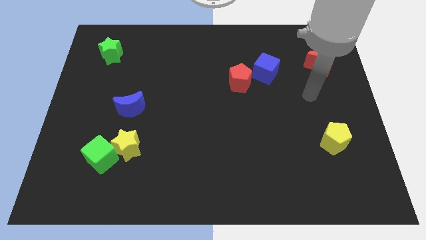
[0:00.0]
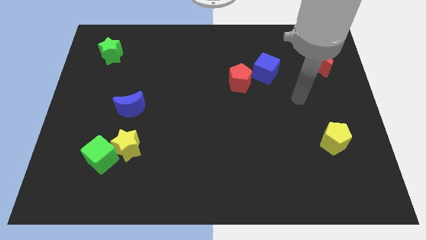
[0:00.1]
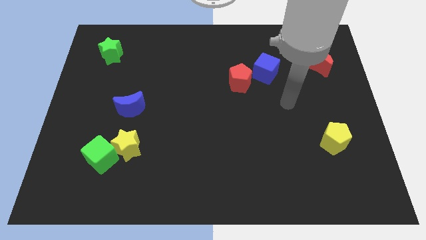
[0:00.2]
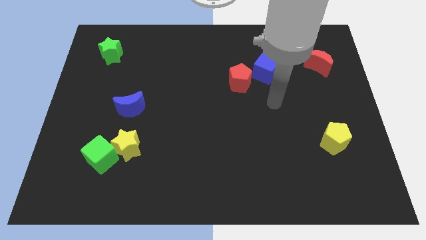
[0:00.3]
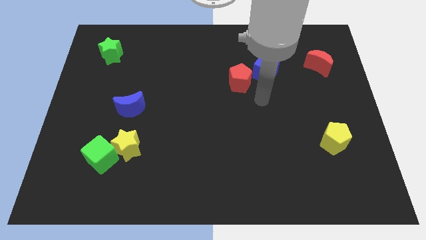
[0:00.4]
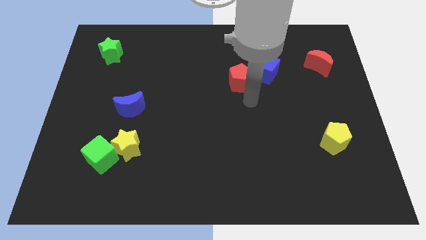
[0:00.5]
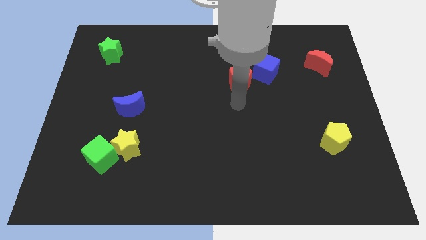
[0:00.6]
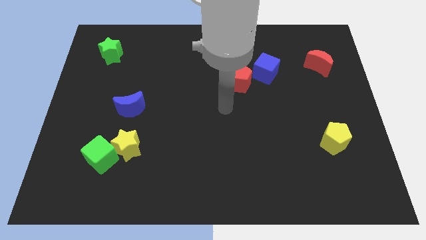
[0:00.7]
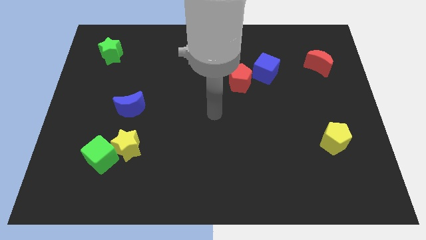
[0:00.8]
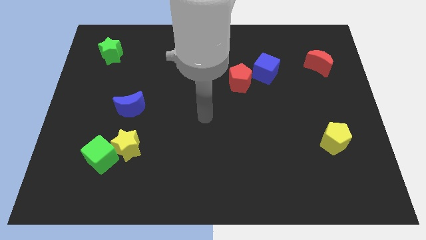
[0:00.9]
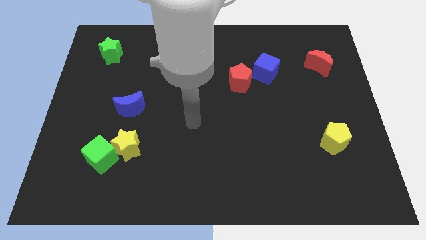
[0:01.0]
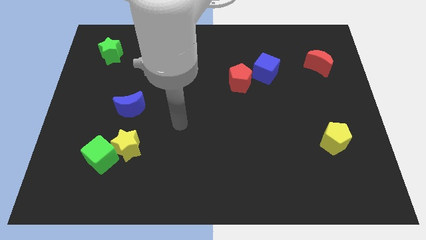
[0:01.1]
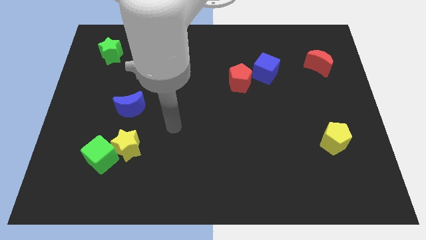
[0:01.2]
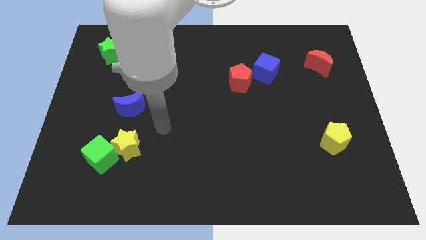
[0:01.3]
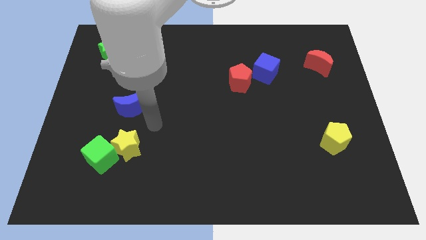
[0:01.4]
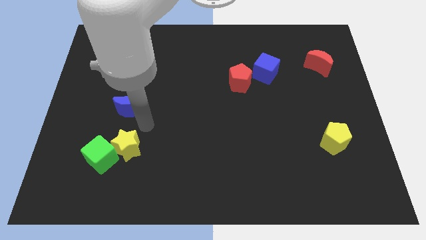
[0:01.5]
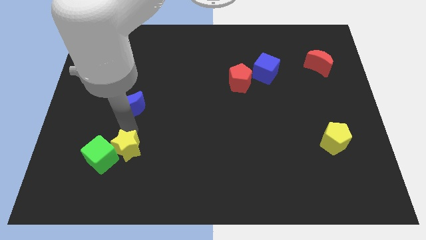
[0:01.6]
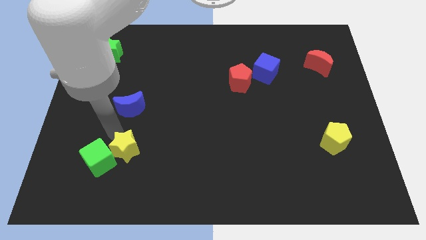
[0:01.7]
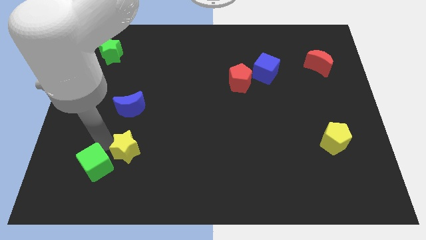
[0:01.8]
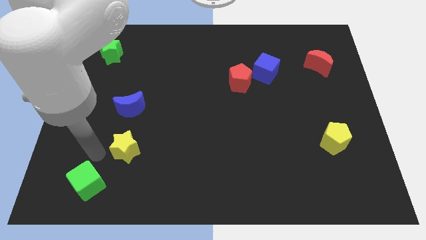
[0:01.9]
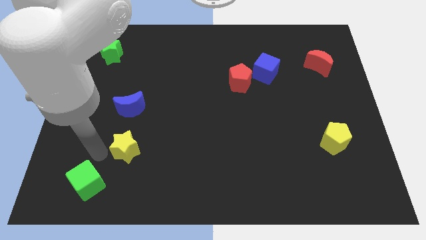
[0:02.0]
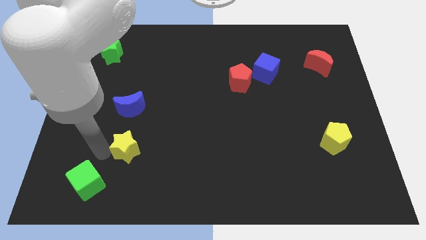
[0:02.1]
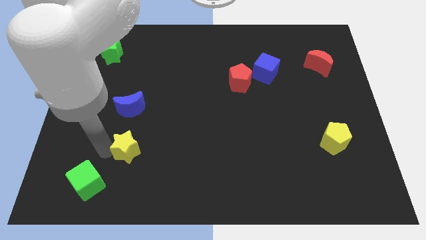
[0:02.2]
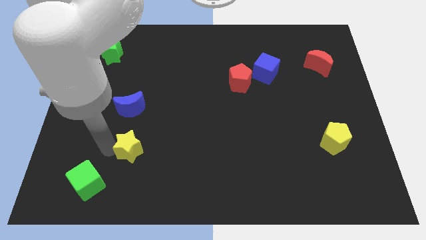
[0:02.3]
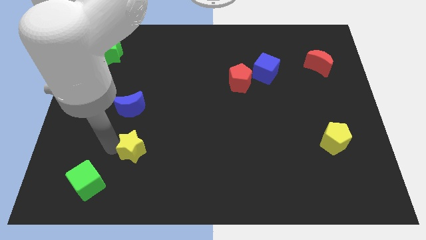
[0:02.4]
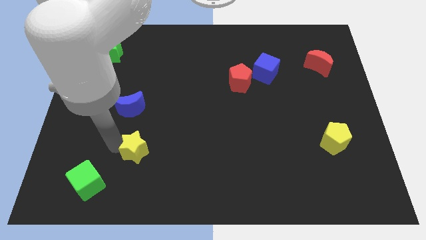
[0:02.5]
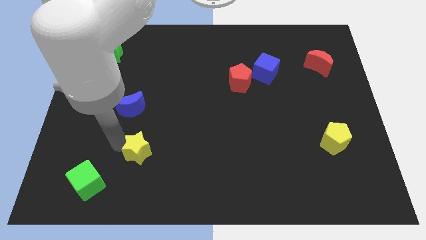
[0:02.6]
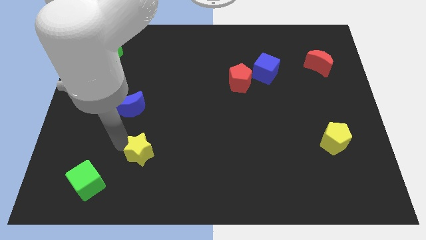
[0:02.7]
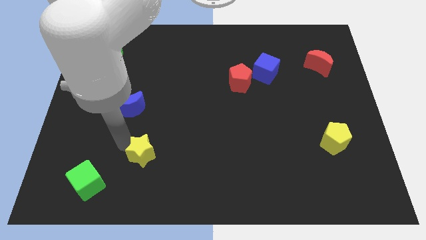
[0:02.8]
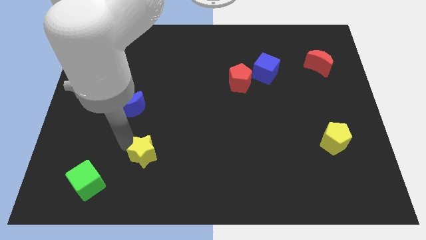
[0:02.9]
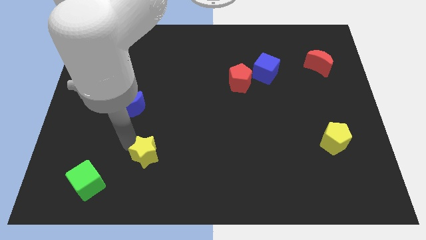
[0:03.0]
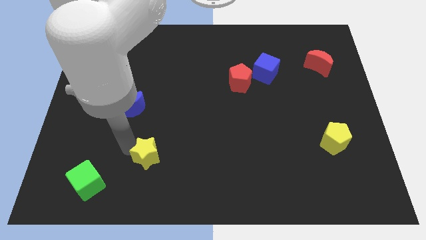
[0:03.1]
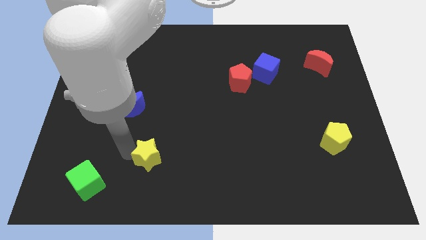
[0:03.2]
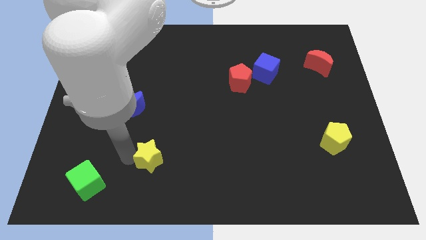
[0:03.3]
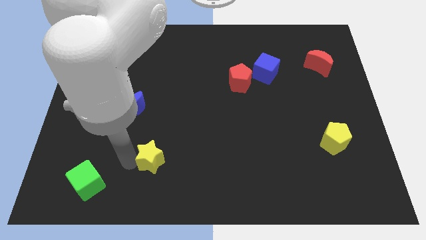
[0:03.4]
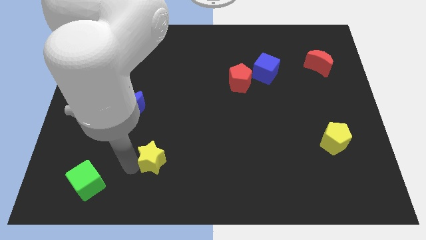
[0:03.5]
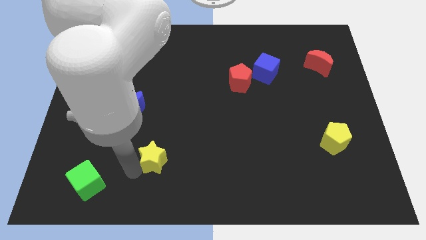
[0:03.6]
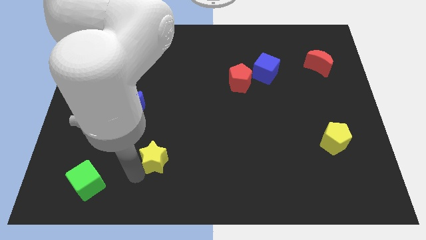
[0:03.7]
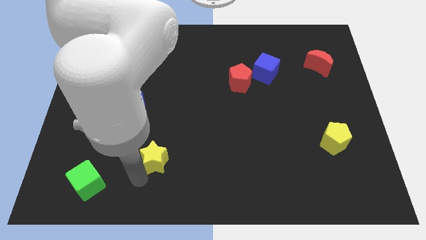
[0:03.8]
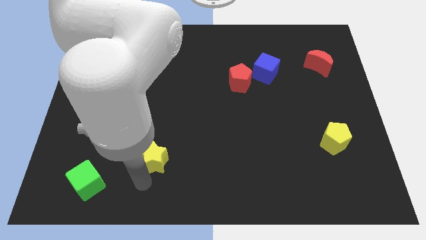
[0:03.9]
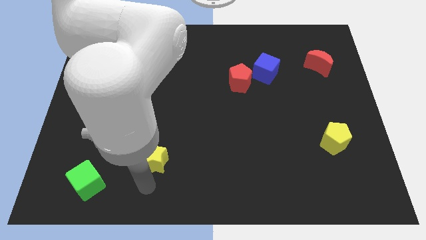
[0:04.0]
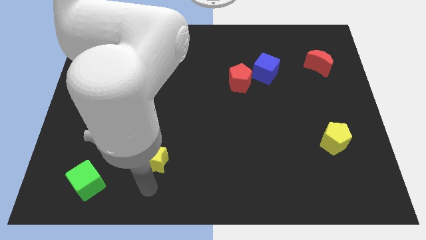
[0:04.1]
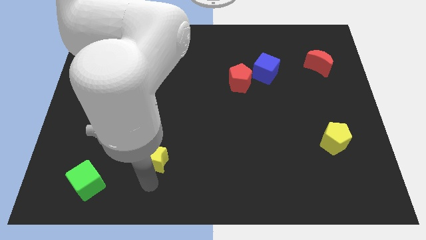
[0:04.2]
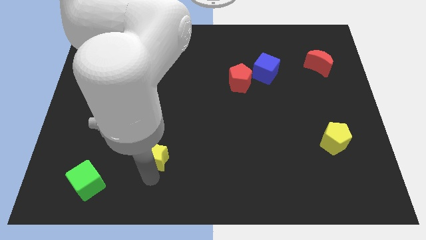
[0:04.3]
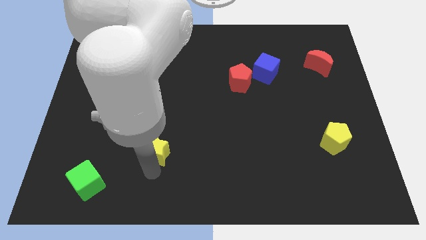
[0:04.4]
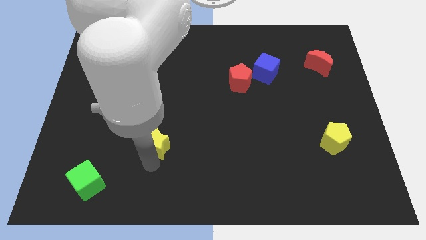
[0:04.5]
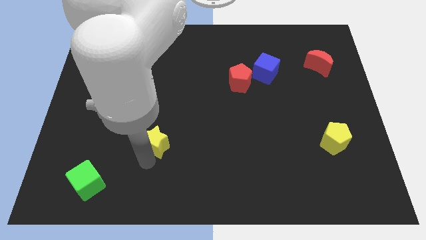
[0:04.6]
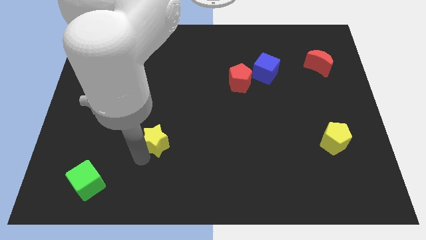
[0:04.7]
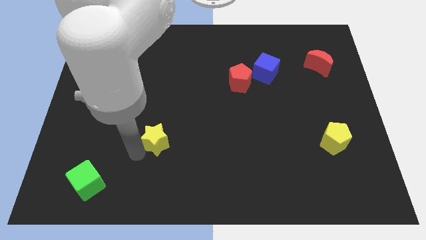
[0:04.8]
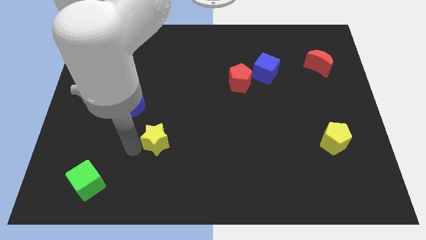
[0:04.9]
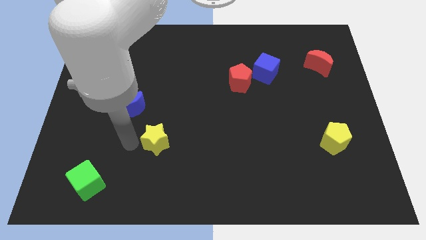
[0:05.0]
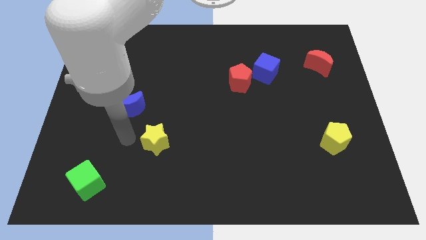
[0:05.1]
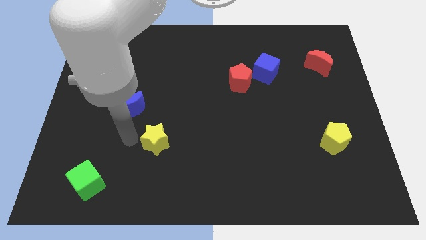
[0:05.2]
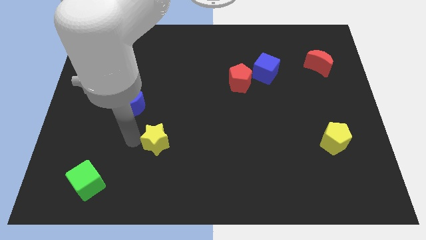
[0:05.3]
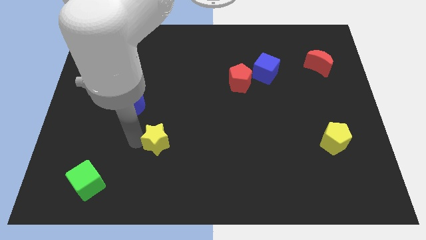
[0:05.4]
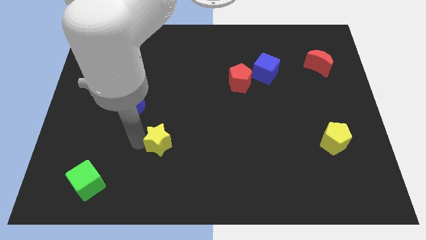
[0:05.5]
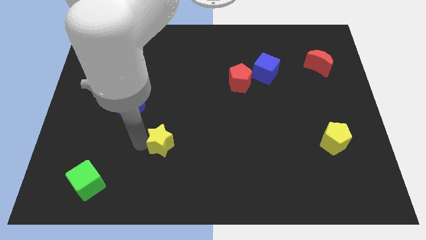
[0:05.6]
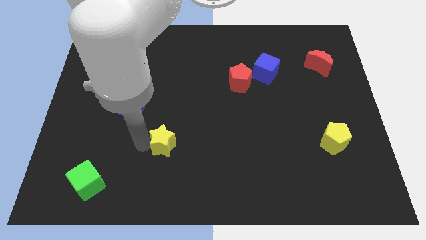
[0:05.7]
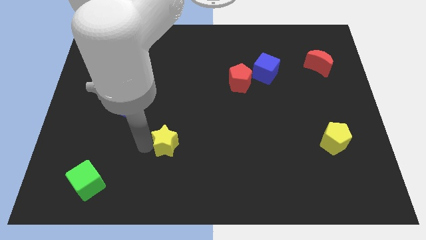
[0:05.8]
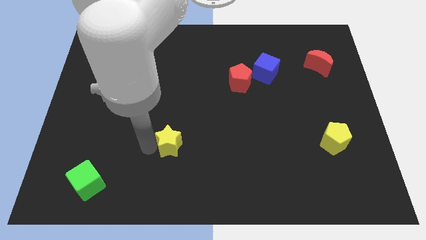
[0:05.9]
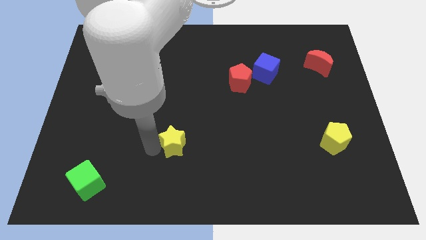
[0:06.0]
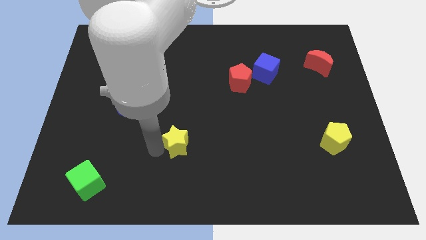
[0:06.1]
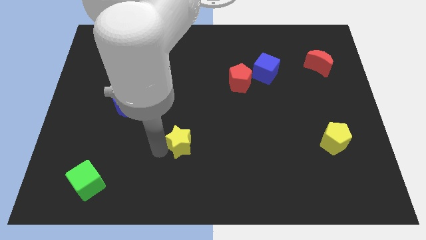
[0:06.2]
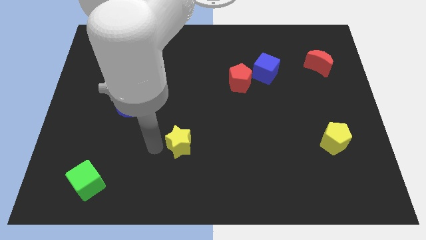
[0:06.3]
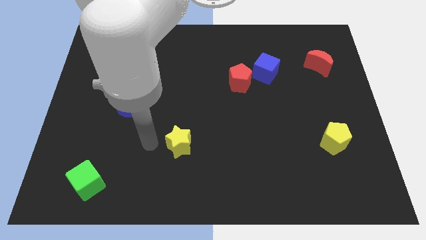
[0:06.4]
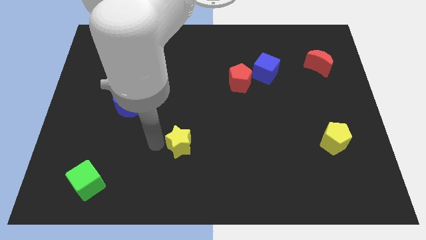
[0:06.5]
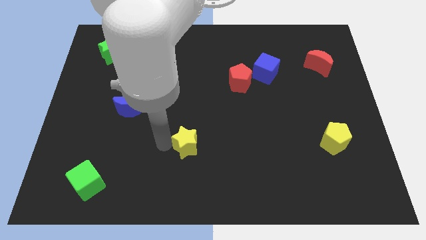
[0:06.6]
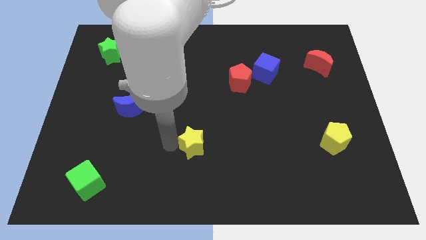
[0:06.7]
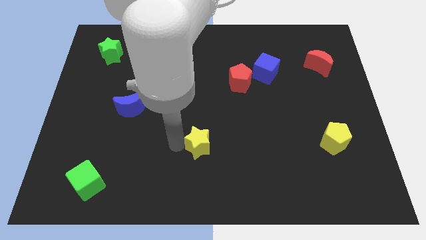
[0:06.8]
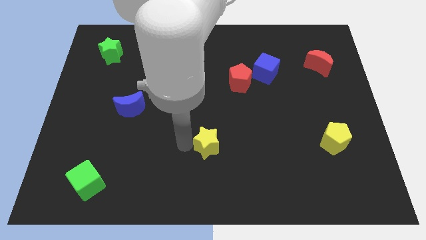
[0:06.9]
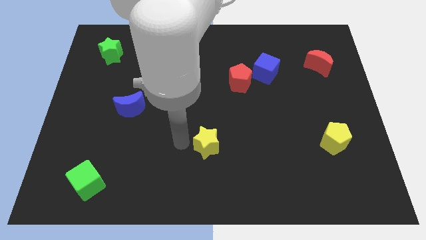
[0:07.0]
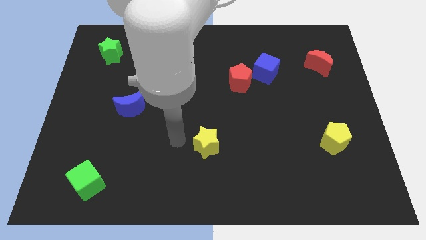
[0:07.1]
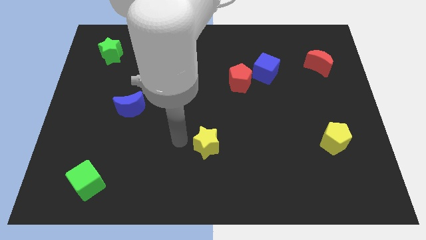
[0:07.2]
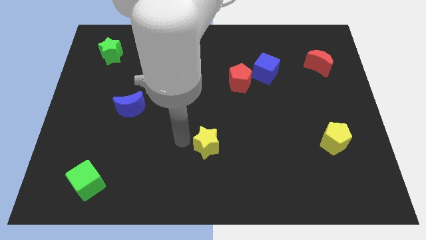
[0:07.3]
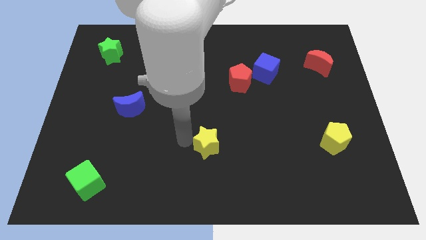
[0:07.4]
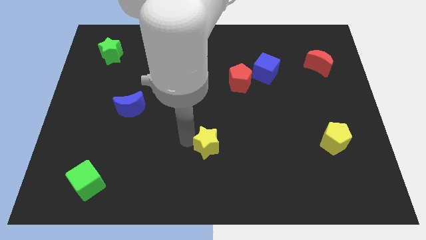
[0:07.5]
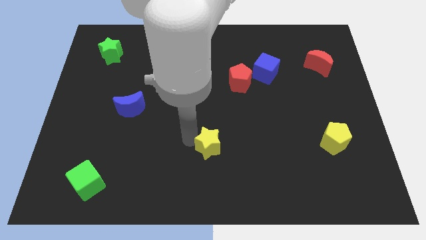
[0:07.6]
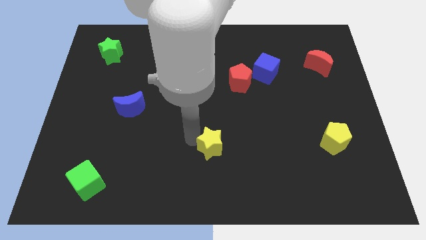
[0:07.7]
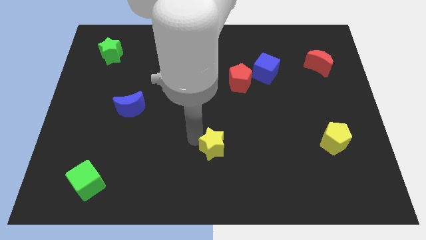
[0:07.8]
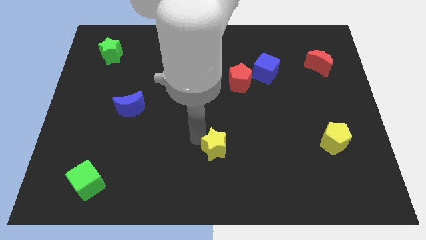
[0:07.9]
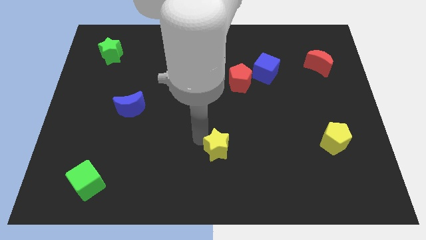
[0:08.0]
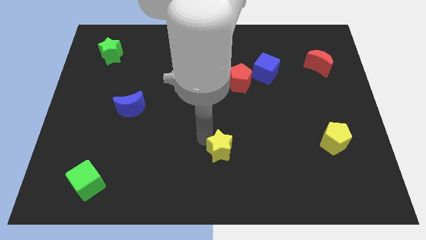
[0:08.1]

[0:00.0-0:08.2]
push the yellow star to the right
